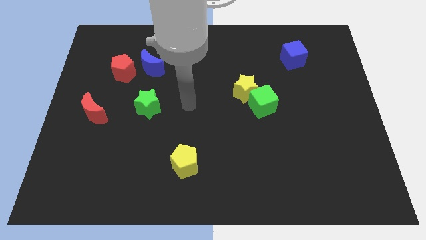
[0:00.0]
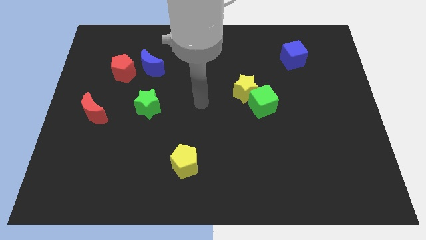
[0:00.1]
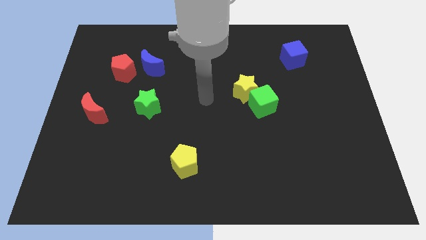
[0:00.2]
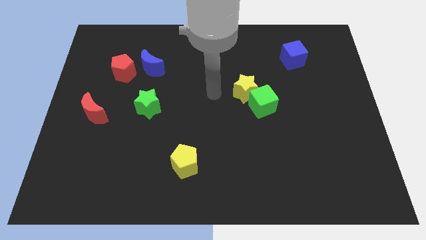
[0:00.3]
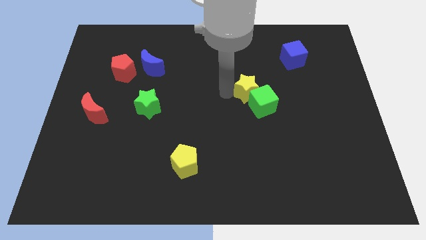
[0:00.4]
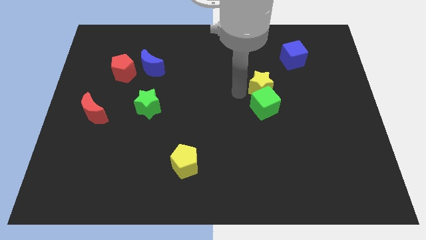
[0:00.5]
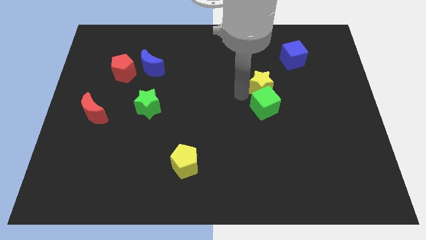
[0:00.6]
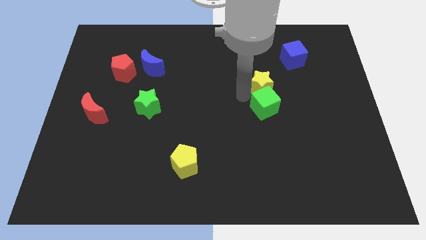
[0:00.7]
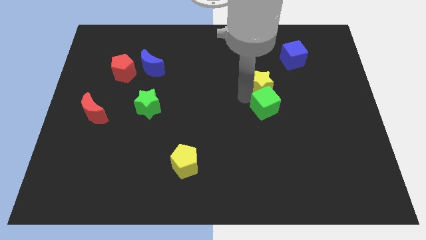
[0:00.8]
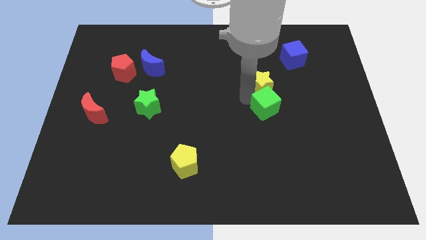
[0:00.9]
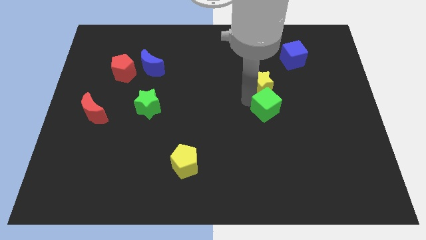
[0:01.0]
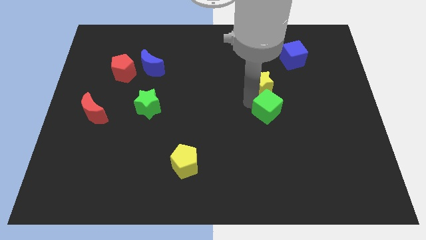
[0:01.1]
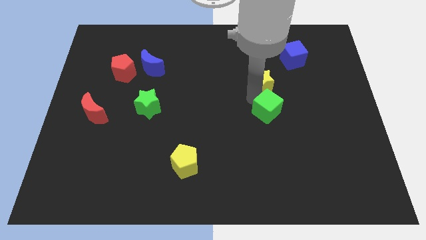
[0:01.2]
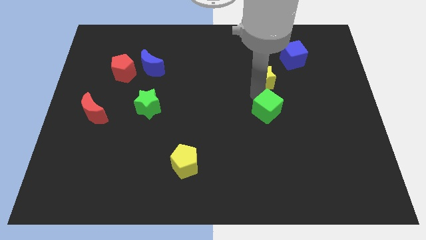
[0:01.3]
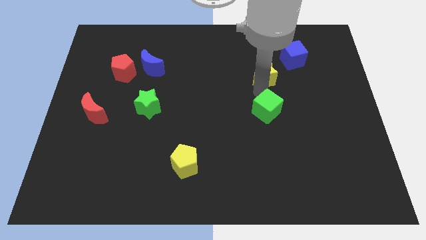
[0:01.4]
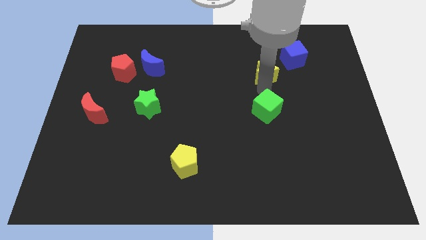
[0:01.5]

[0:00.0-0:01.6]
pull the green cube apart from the yellow star

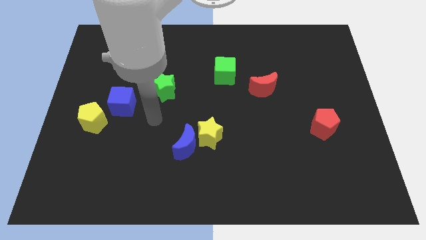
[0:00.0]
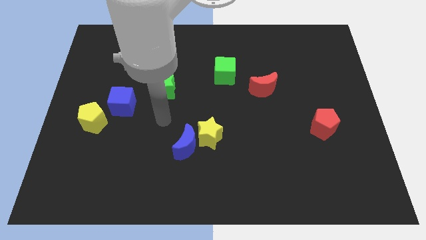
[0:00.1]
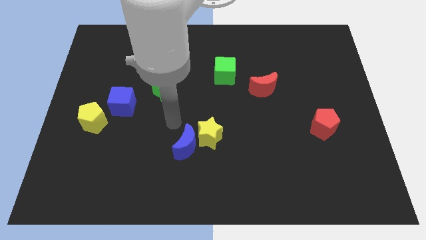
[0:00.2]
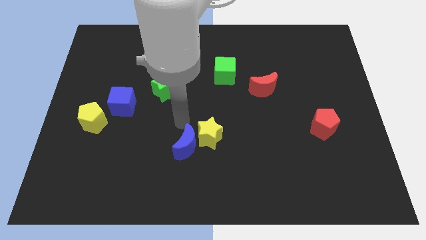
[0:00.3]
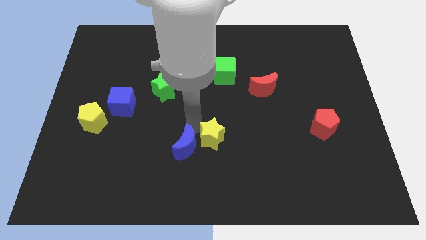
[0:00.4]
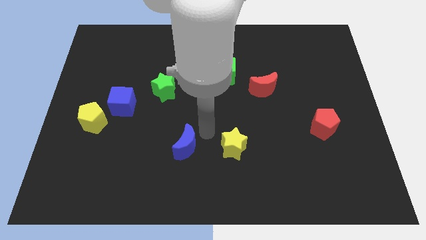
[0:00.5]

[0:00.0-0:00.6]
move the blue moon away from the yellow star

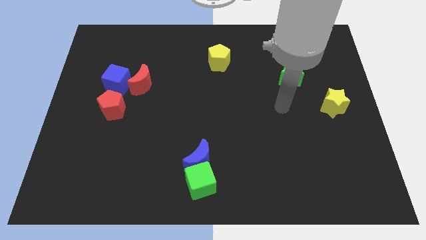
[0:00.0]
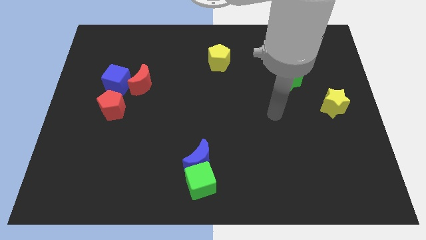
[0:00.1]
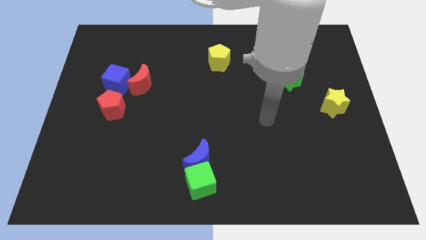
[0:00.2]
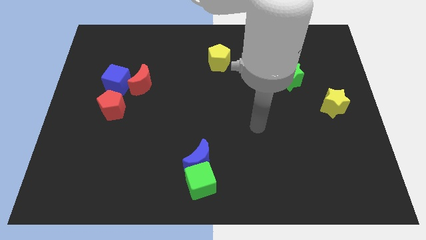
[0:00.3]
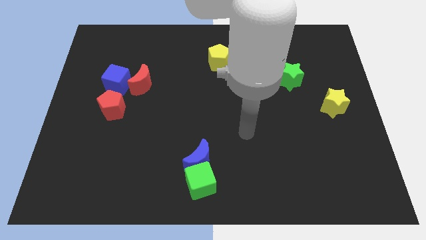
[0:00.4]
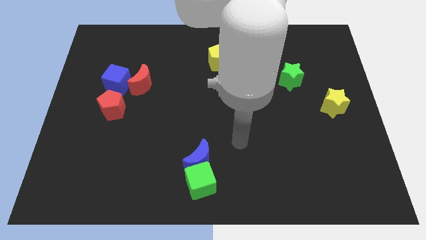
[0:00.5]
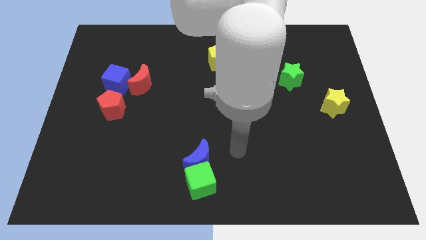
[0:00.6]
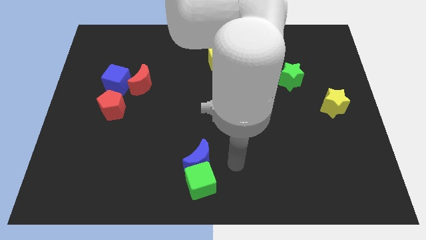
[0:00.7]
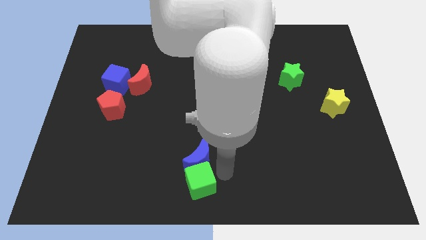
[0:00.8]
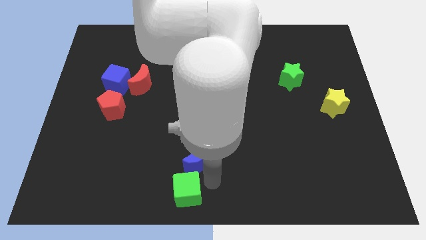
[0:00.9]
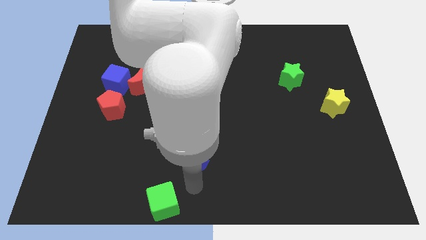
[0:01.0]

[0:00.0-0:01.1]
pull the blue moon apart from the green cube

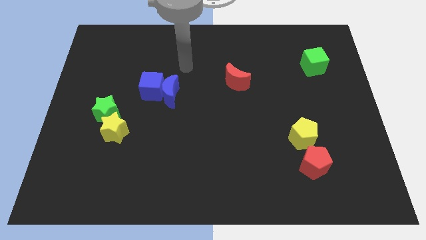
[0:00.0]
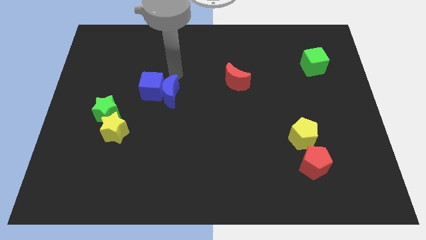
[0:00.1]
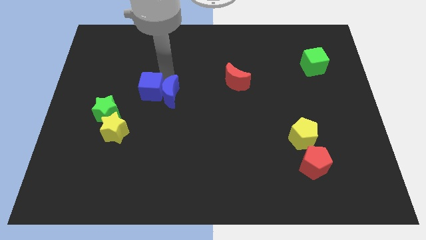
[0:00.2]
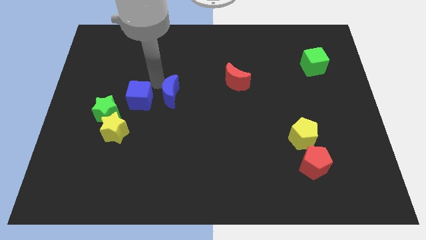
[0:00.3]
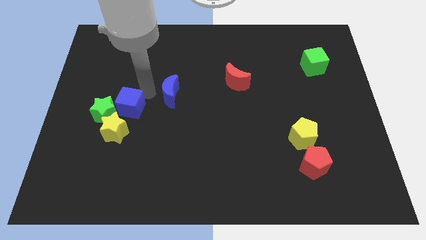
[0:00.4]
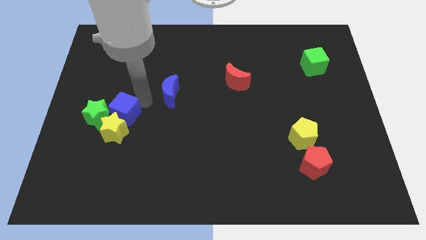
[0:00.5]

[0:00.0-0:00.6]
move the blue moon away from the blue cube

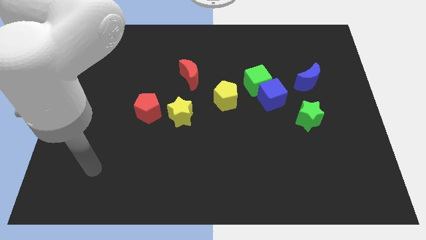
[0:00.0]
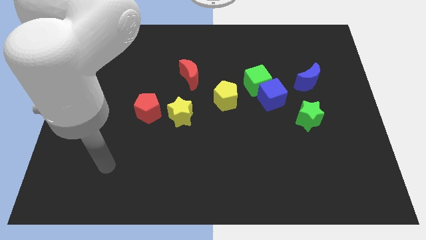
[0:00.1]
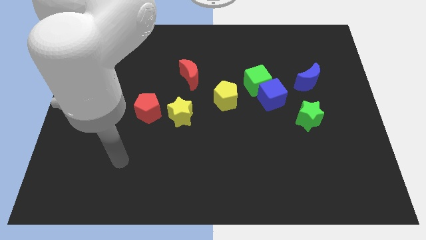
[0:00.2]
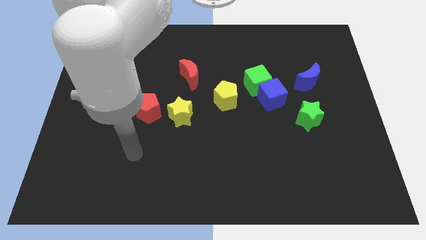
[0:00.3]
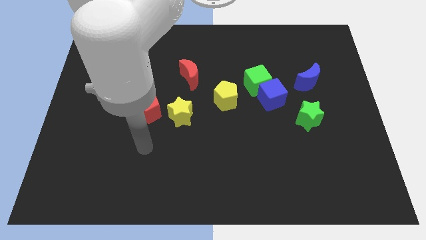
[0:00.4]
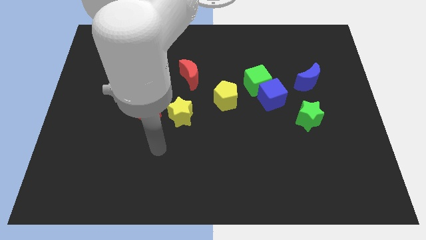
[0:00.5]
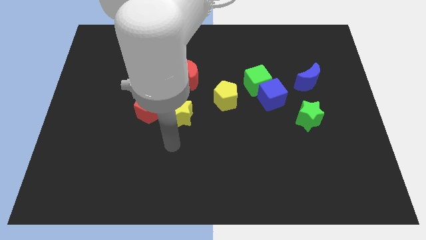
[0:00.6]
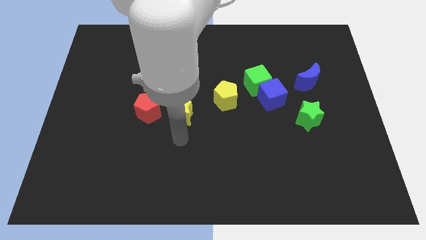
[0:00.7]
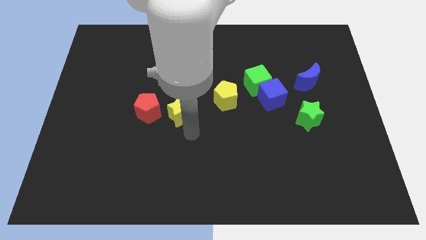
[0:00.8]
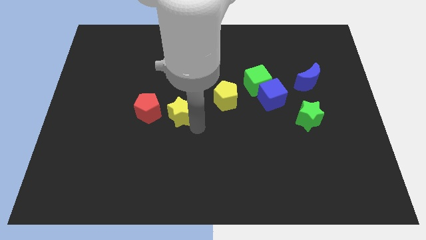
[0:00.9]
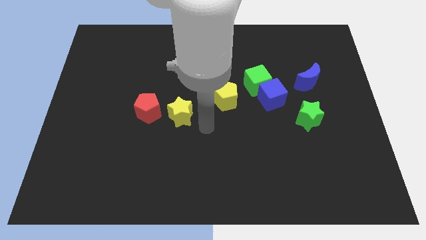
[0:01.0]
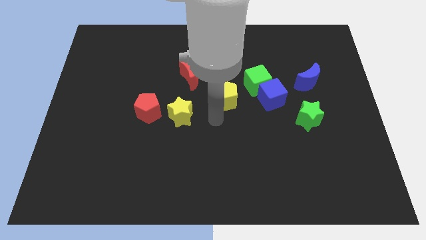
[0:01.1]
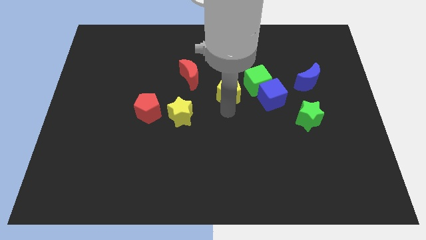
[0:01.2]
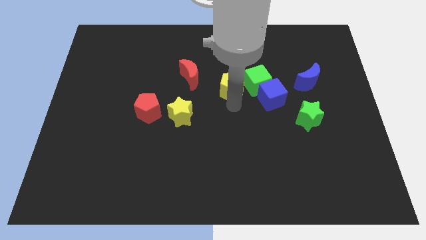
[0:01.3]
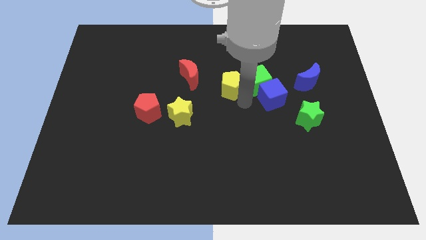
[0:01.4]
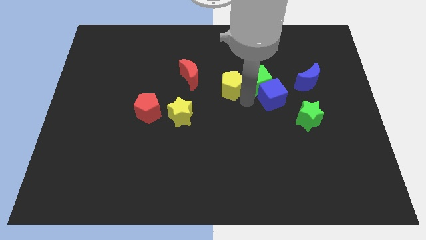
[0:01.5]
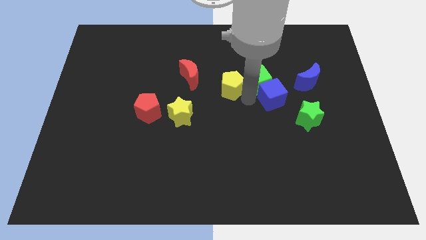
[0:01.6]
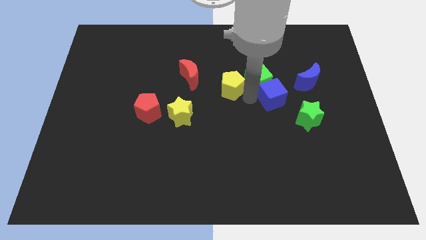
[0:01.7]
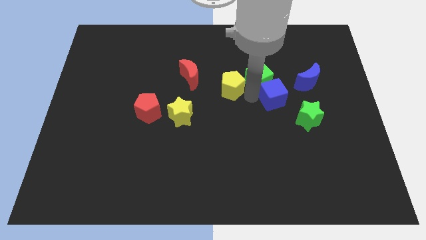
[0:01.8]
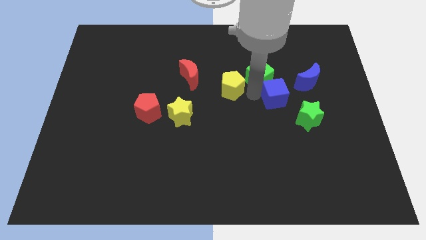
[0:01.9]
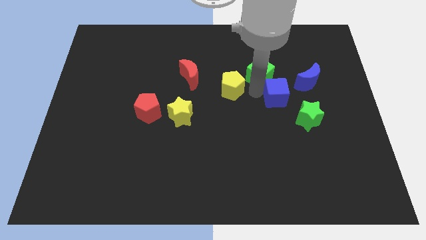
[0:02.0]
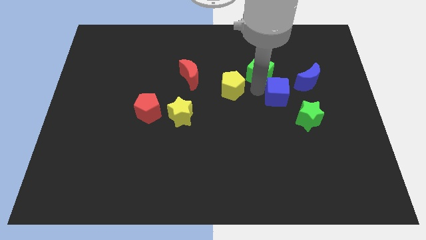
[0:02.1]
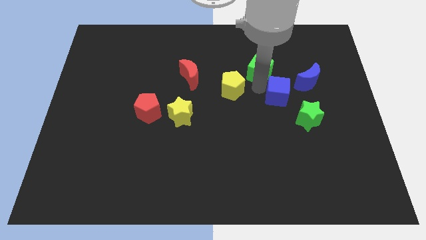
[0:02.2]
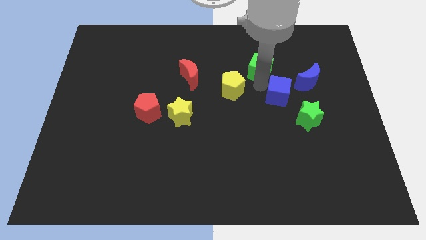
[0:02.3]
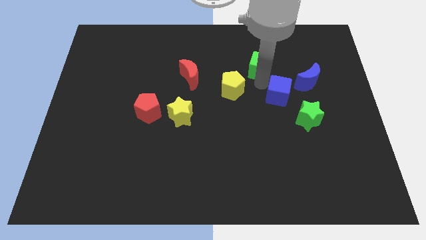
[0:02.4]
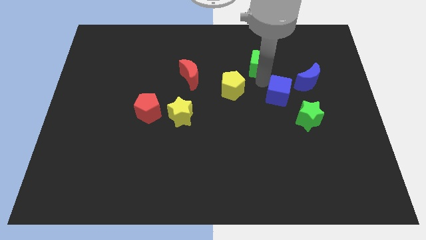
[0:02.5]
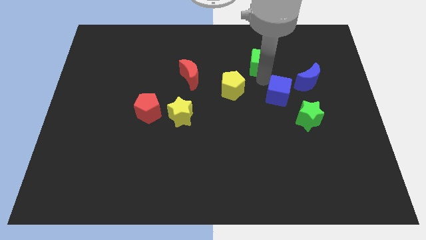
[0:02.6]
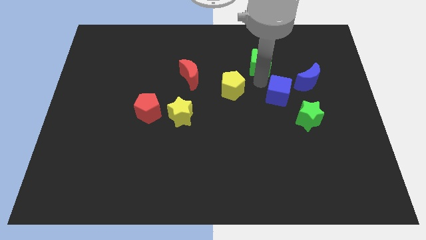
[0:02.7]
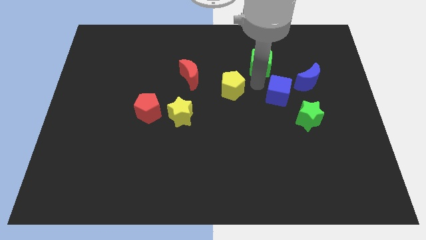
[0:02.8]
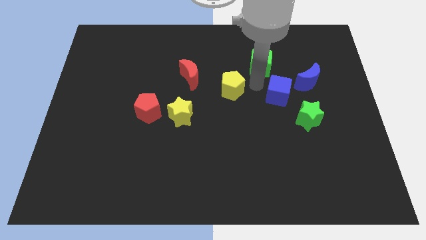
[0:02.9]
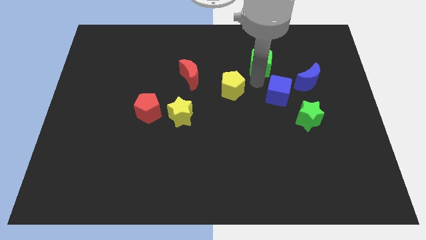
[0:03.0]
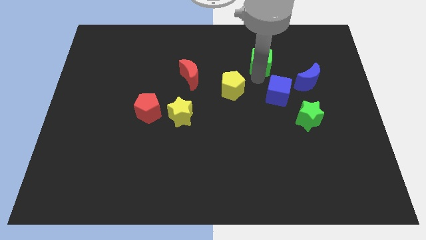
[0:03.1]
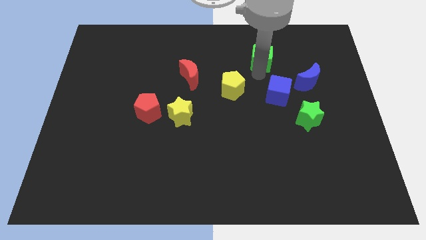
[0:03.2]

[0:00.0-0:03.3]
pull the green cube apart from the blue cube and yellow pentagon

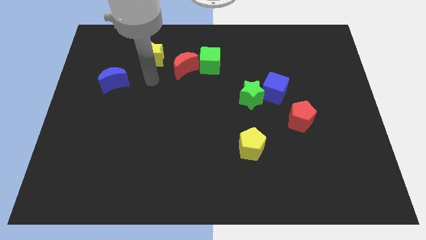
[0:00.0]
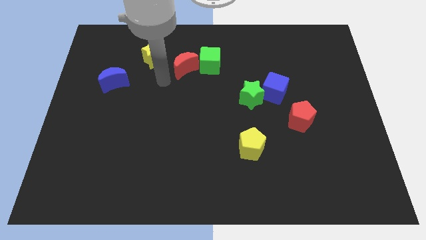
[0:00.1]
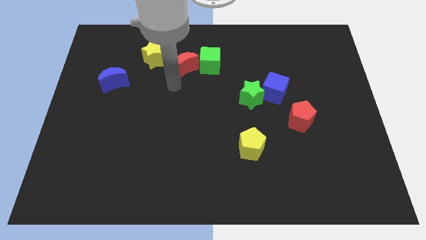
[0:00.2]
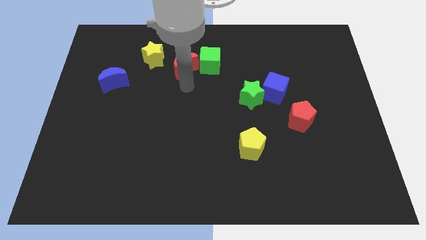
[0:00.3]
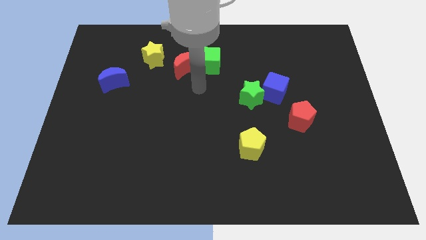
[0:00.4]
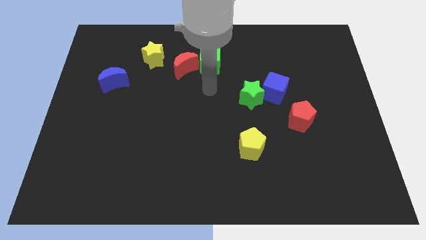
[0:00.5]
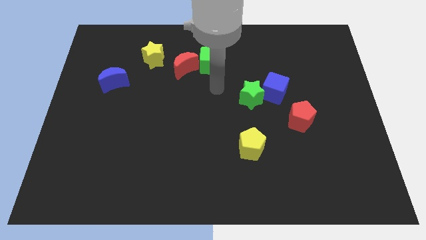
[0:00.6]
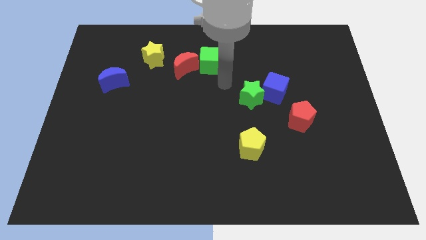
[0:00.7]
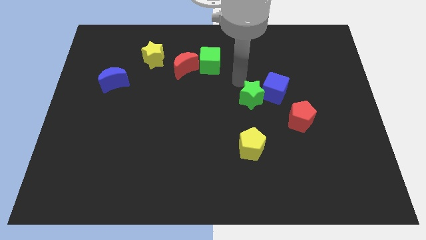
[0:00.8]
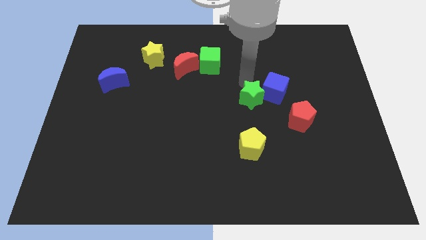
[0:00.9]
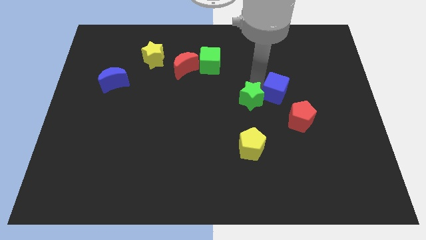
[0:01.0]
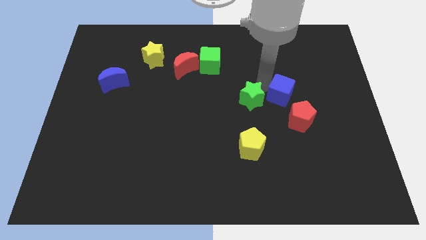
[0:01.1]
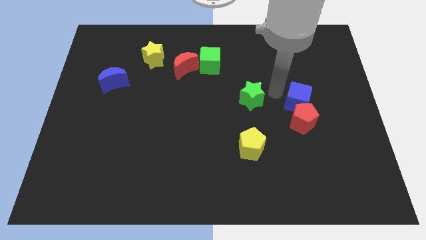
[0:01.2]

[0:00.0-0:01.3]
pull the green star apart from the blue cube

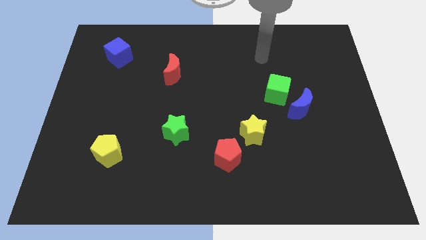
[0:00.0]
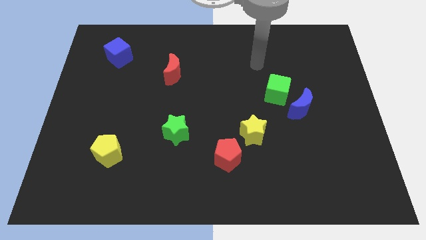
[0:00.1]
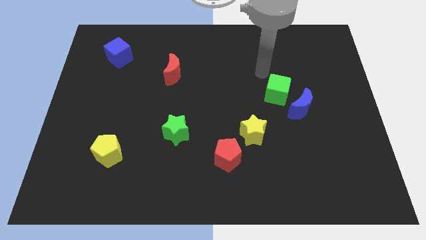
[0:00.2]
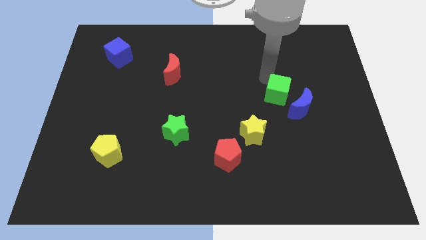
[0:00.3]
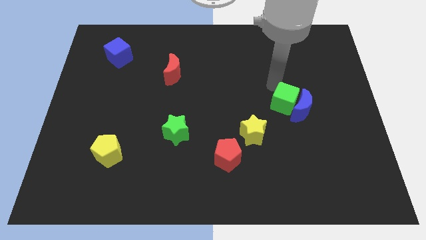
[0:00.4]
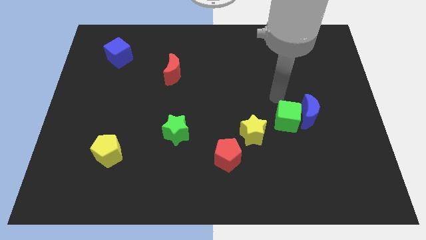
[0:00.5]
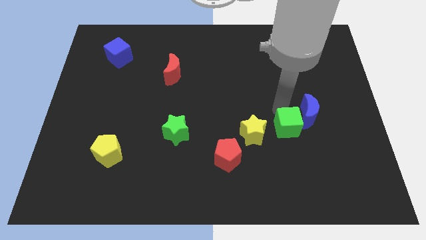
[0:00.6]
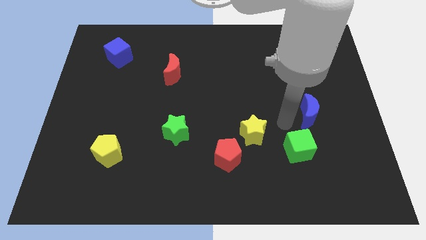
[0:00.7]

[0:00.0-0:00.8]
move the blue moon away from the green cube
